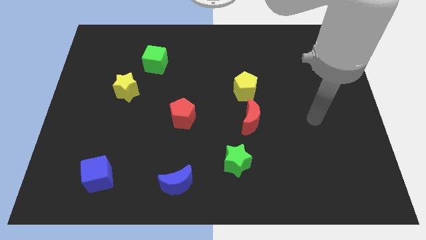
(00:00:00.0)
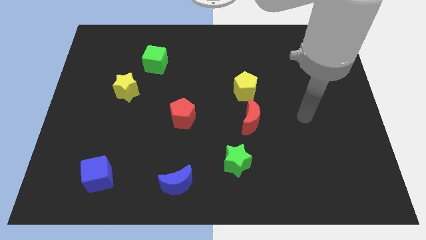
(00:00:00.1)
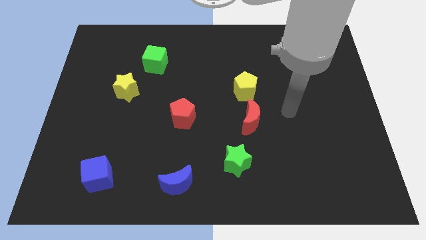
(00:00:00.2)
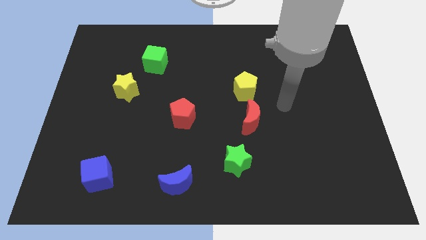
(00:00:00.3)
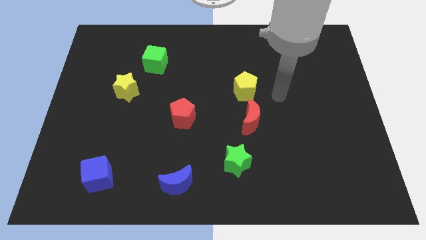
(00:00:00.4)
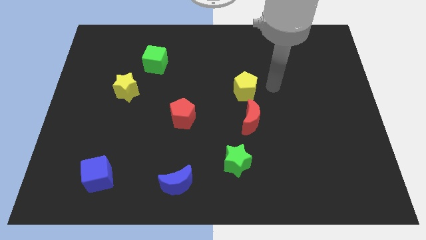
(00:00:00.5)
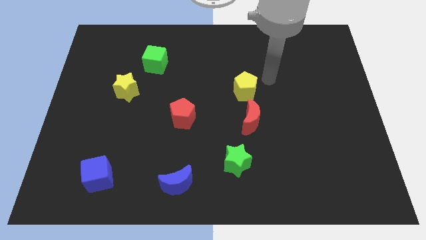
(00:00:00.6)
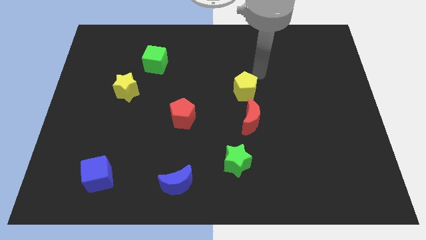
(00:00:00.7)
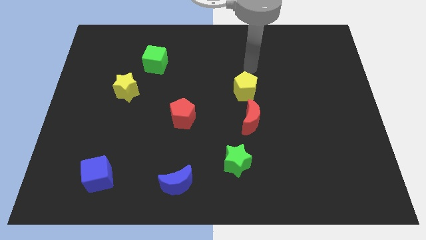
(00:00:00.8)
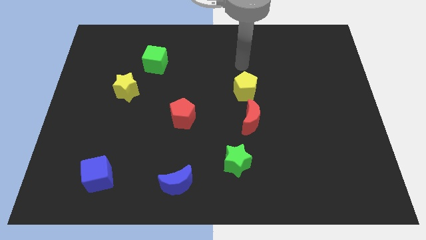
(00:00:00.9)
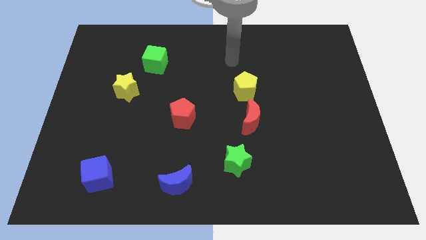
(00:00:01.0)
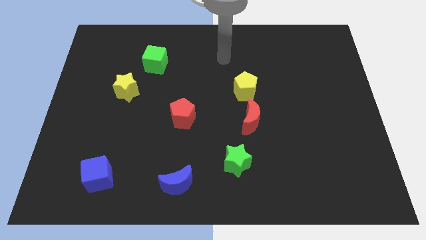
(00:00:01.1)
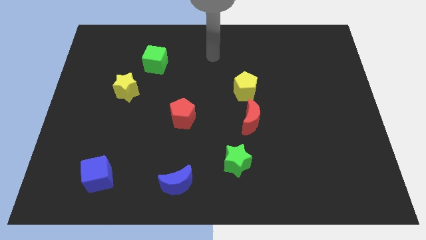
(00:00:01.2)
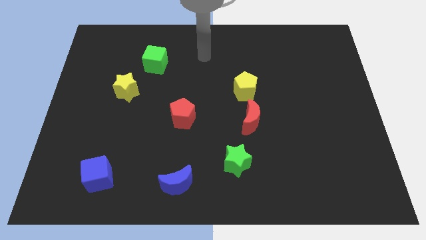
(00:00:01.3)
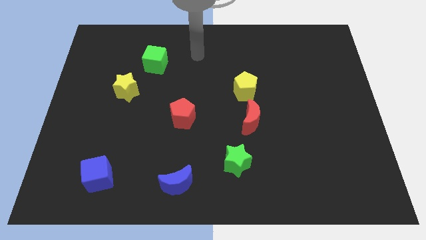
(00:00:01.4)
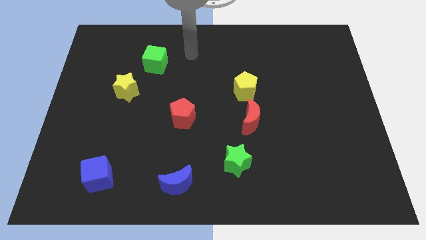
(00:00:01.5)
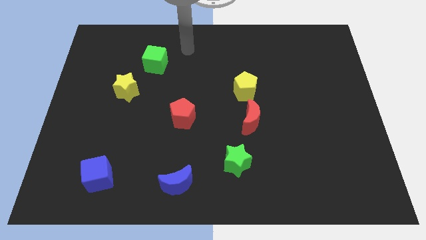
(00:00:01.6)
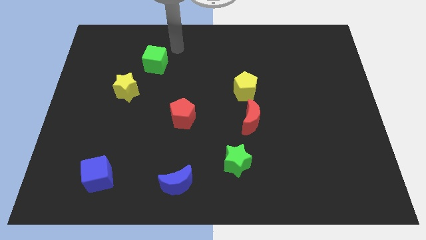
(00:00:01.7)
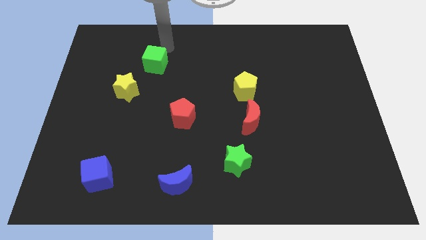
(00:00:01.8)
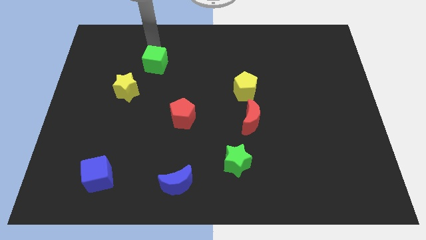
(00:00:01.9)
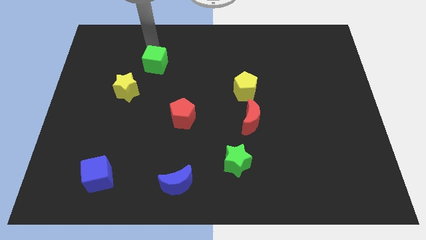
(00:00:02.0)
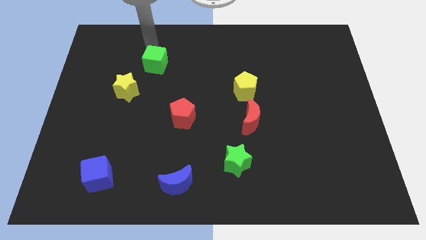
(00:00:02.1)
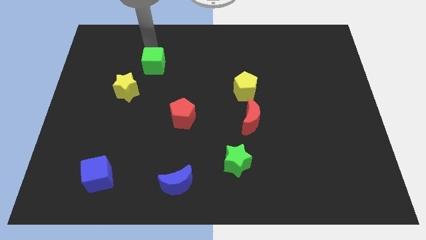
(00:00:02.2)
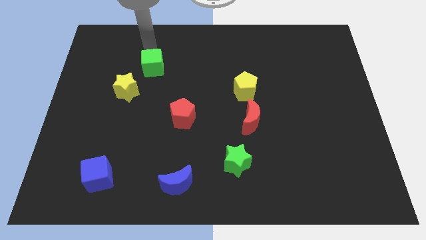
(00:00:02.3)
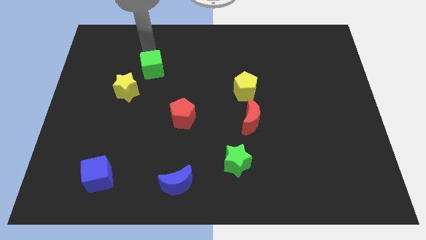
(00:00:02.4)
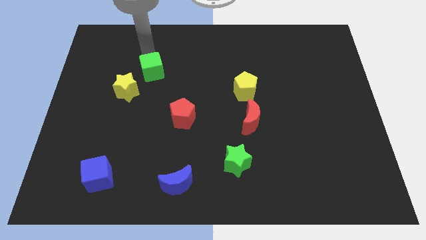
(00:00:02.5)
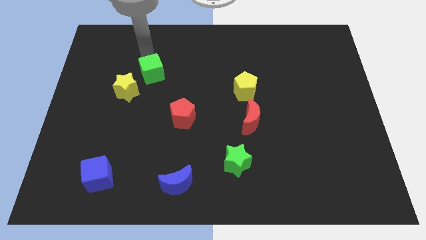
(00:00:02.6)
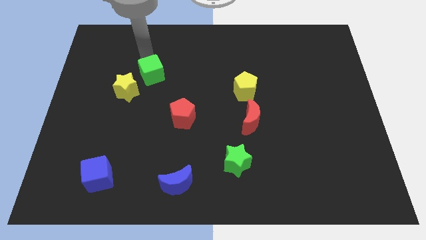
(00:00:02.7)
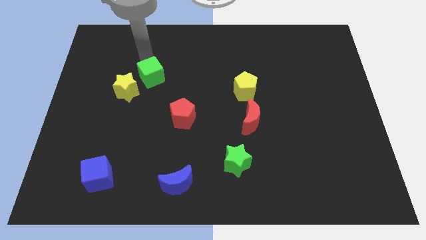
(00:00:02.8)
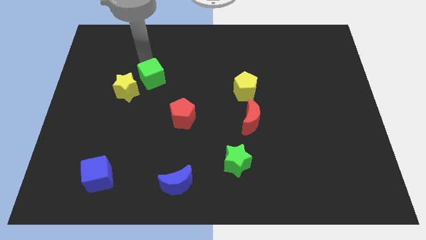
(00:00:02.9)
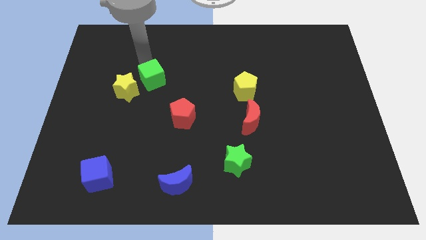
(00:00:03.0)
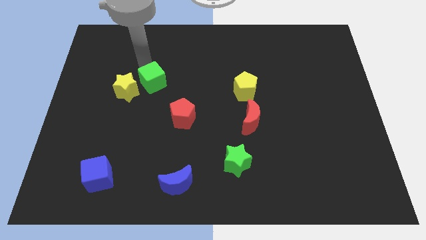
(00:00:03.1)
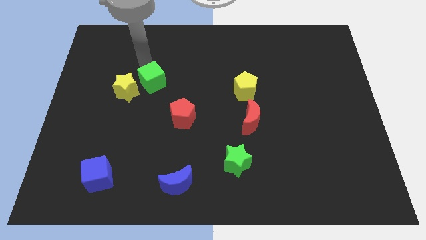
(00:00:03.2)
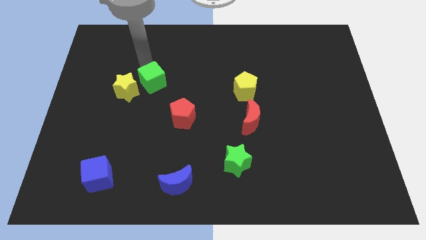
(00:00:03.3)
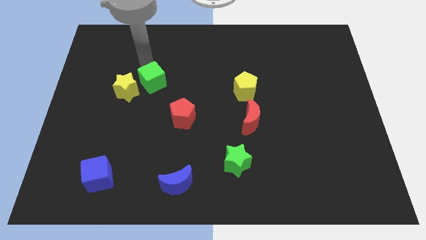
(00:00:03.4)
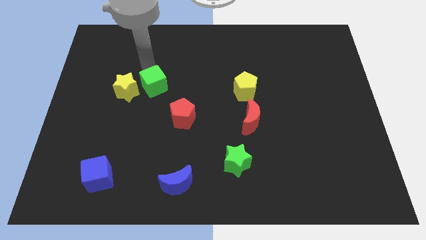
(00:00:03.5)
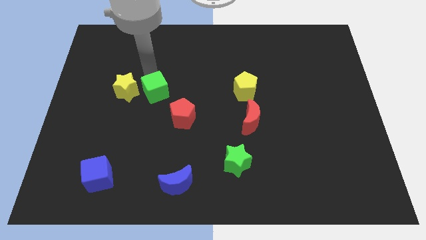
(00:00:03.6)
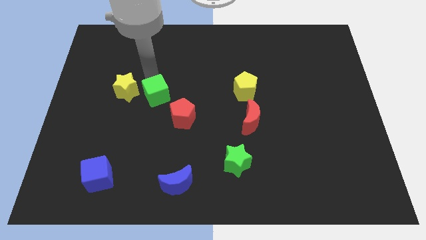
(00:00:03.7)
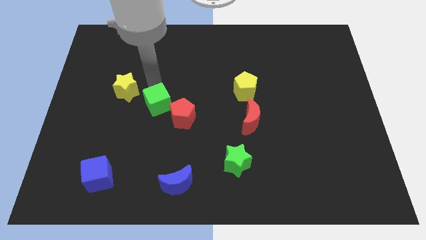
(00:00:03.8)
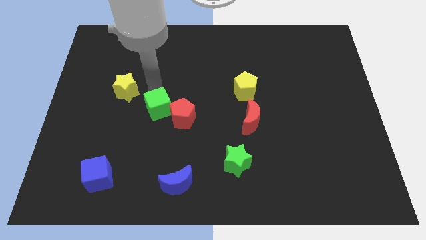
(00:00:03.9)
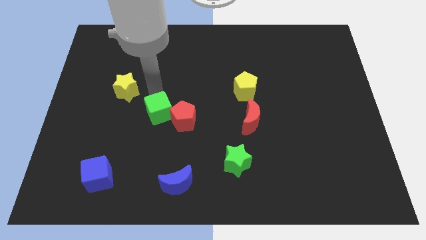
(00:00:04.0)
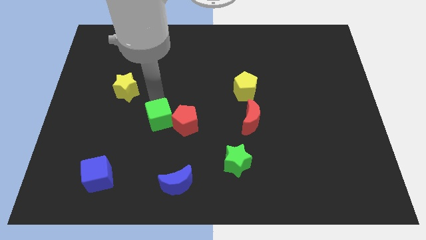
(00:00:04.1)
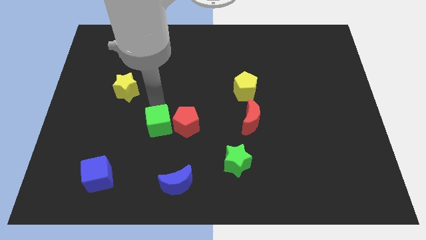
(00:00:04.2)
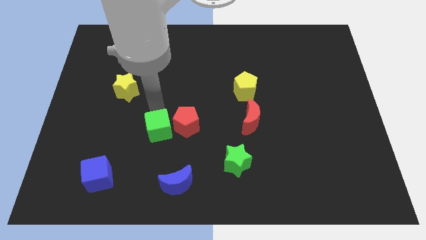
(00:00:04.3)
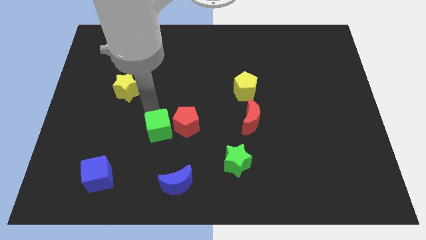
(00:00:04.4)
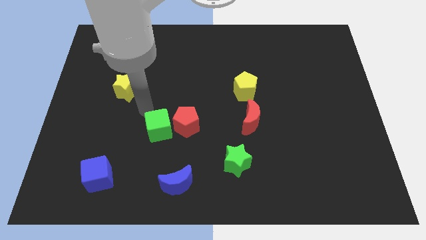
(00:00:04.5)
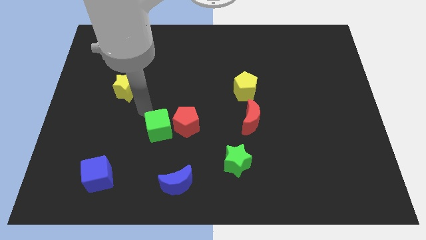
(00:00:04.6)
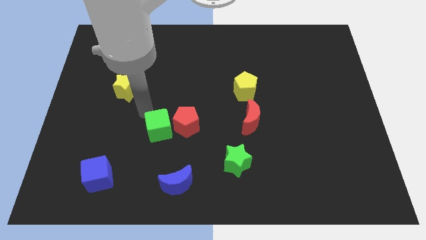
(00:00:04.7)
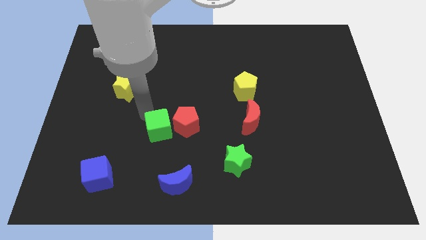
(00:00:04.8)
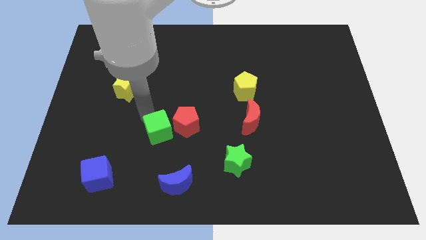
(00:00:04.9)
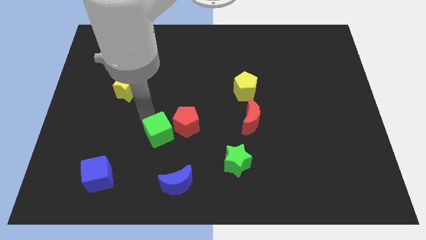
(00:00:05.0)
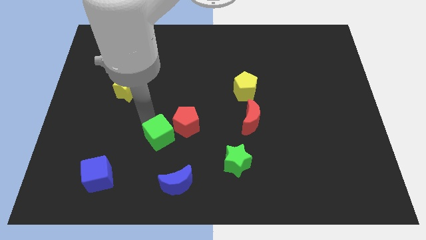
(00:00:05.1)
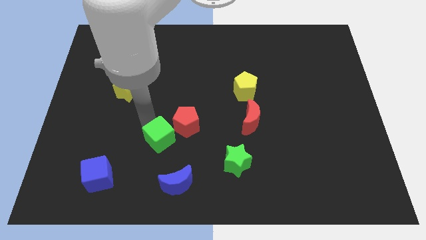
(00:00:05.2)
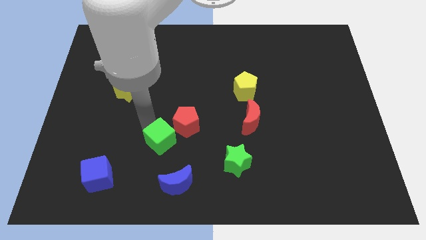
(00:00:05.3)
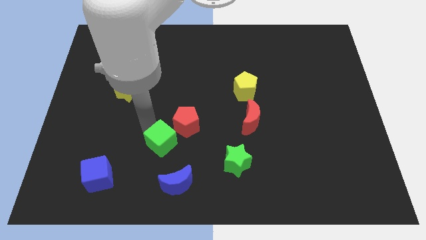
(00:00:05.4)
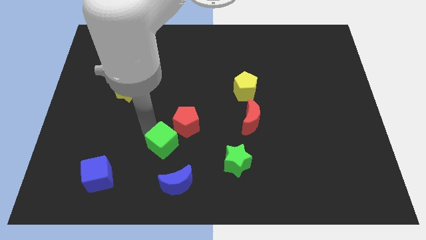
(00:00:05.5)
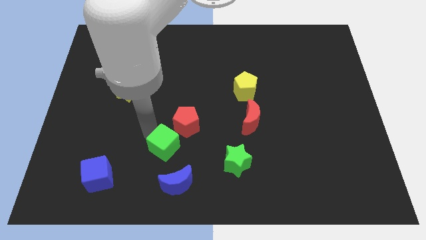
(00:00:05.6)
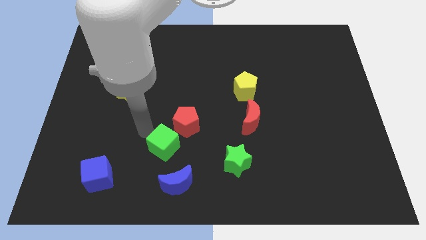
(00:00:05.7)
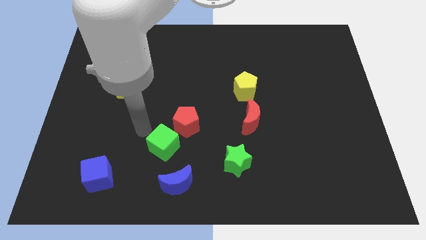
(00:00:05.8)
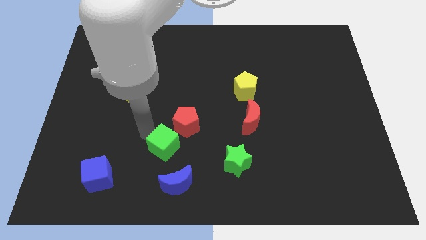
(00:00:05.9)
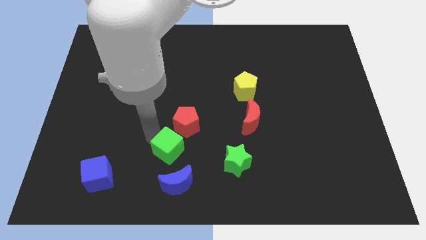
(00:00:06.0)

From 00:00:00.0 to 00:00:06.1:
push the green cube just left of the green star

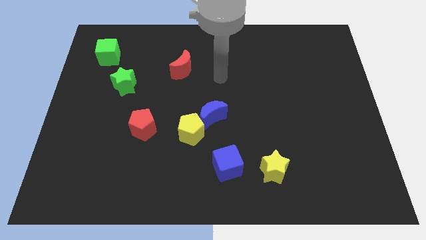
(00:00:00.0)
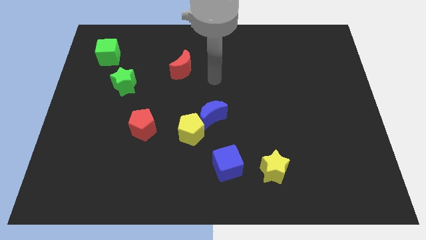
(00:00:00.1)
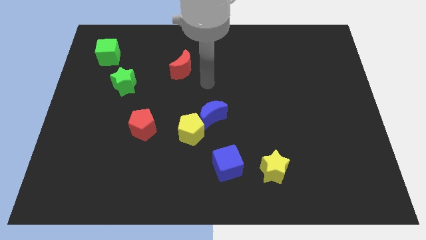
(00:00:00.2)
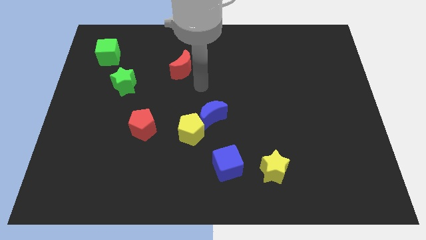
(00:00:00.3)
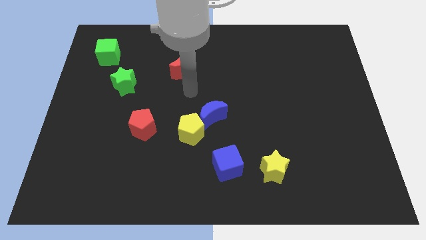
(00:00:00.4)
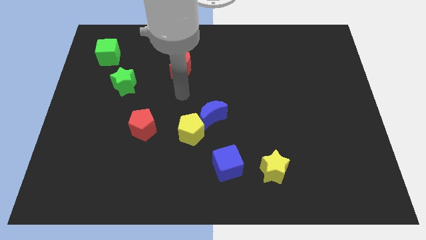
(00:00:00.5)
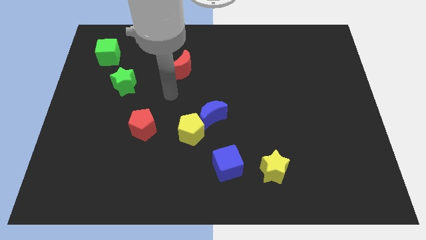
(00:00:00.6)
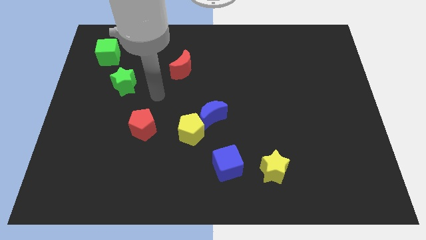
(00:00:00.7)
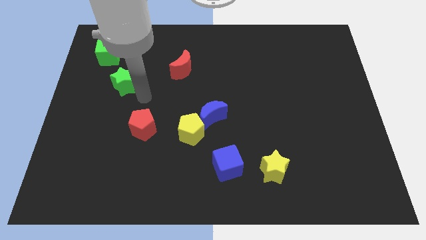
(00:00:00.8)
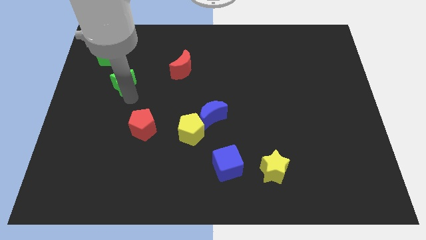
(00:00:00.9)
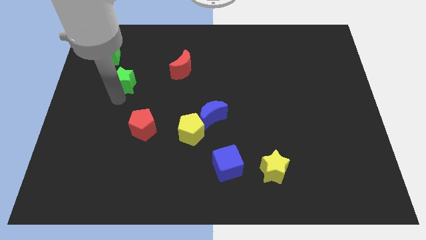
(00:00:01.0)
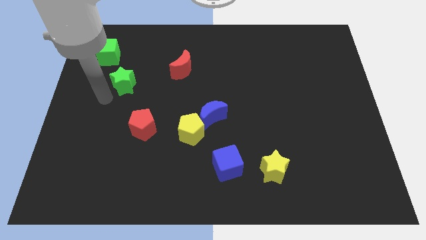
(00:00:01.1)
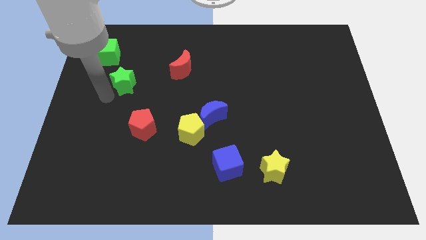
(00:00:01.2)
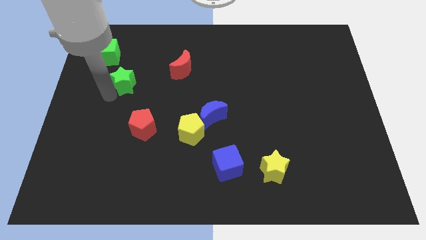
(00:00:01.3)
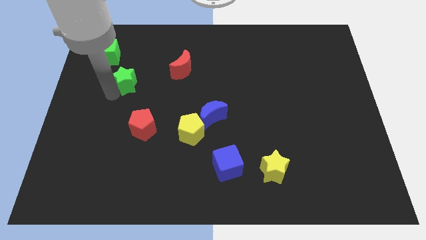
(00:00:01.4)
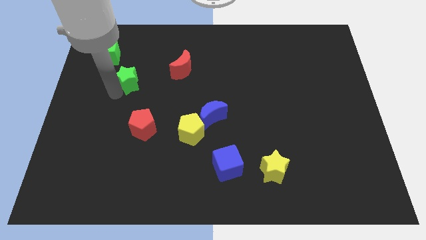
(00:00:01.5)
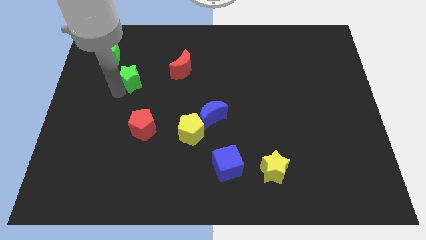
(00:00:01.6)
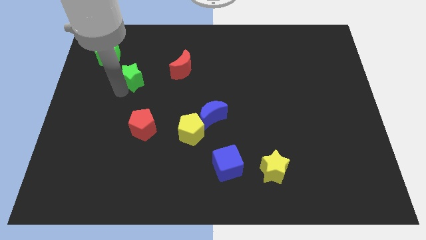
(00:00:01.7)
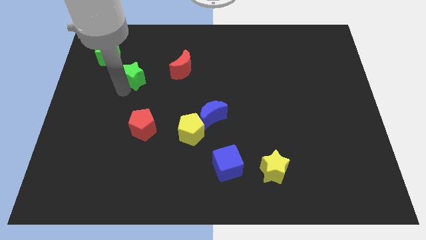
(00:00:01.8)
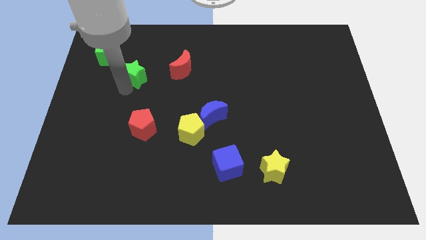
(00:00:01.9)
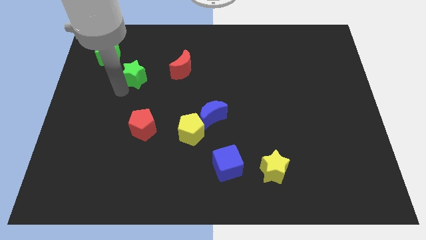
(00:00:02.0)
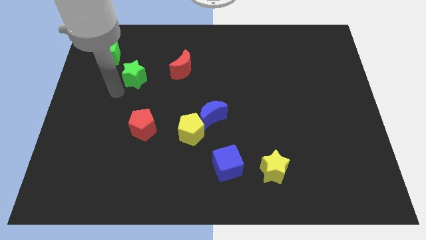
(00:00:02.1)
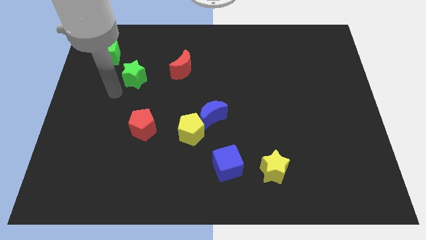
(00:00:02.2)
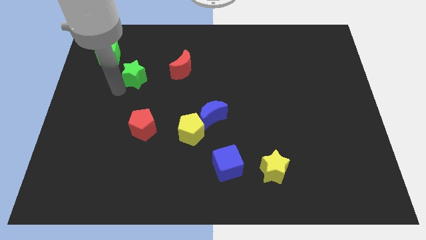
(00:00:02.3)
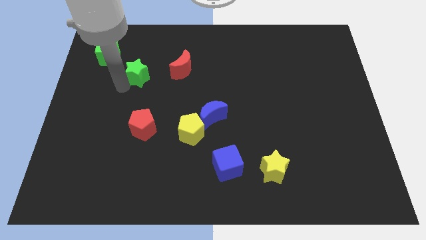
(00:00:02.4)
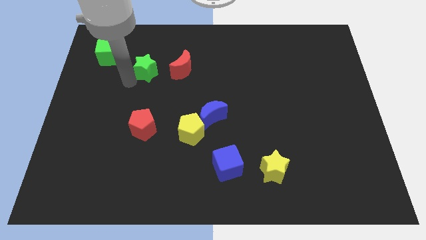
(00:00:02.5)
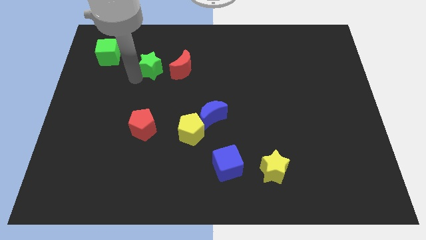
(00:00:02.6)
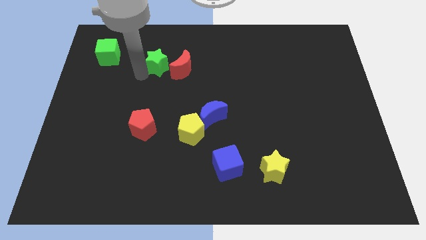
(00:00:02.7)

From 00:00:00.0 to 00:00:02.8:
put the green star to the top left of the red moon
